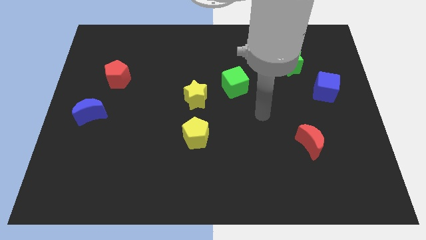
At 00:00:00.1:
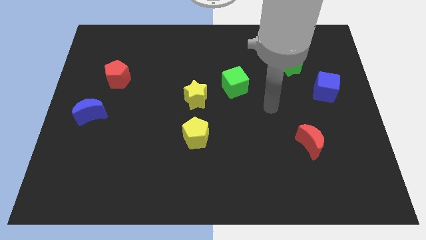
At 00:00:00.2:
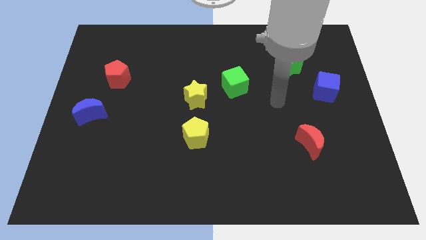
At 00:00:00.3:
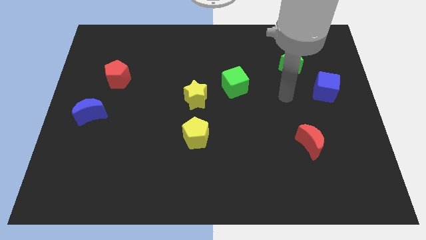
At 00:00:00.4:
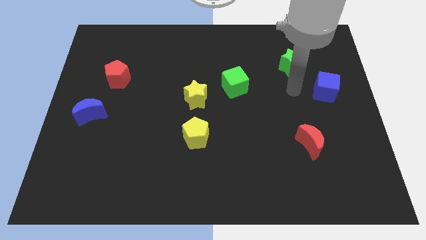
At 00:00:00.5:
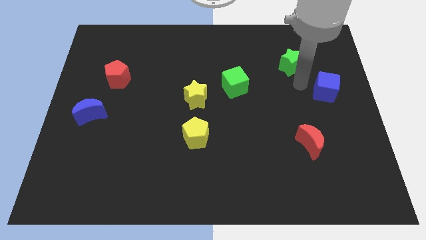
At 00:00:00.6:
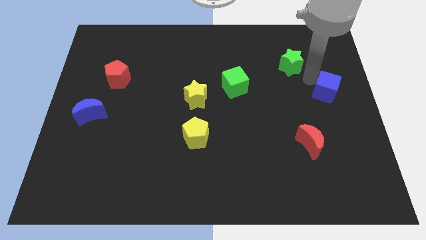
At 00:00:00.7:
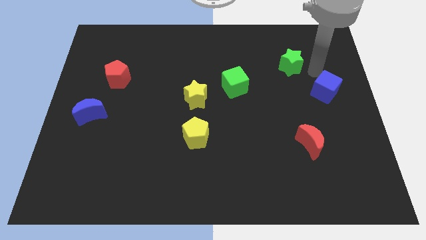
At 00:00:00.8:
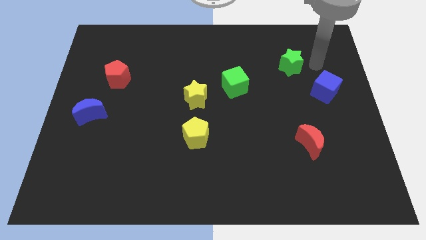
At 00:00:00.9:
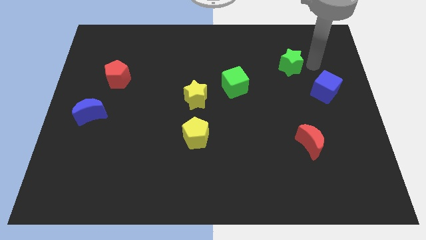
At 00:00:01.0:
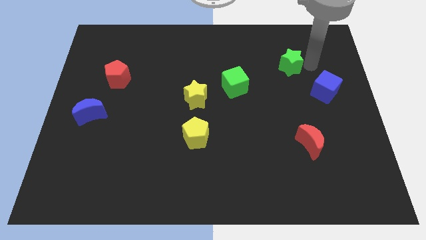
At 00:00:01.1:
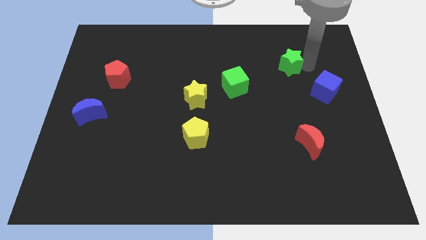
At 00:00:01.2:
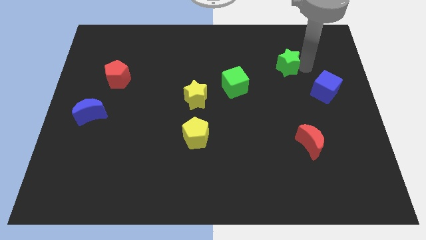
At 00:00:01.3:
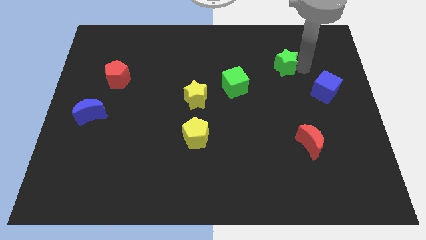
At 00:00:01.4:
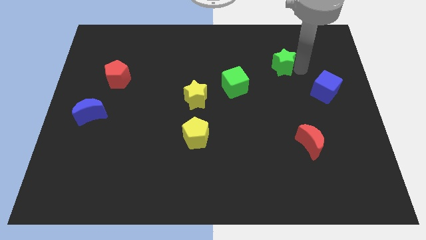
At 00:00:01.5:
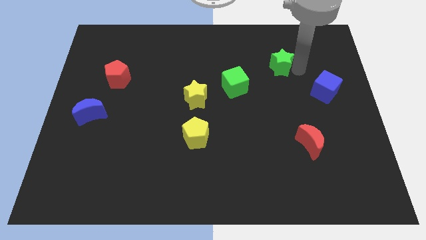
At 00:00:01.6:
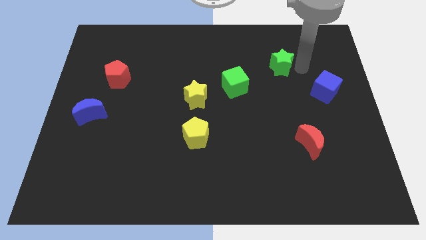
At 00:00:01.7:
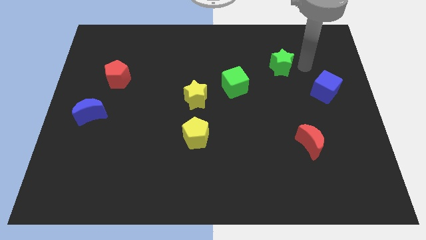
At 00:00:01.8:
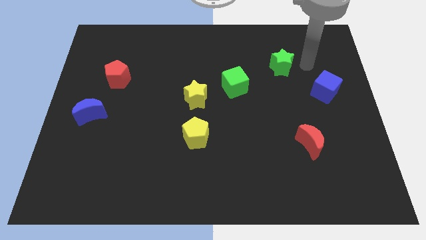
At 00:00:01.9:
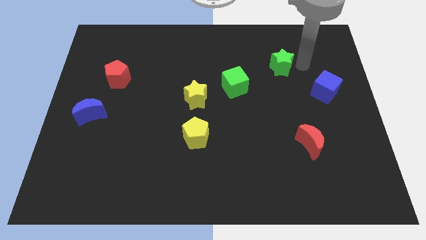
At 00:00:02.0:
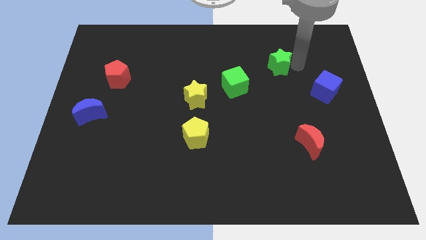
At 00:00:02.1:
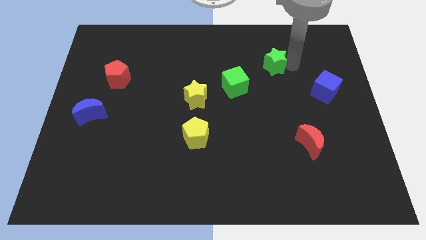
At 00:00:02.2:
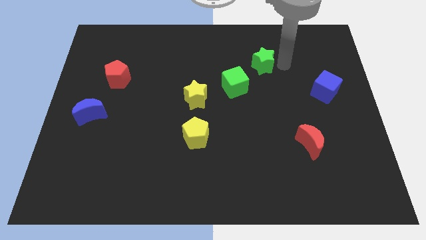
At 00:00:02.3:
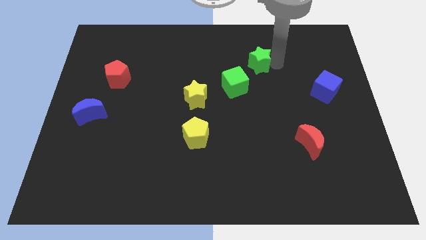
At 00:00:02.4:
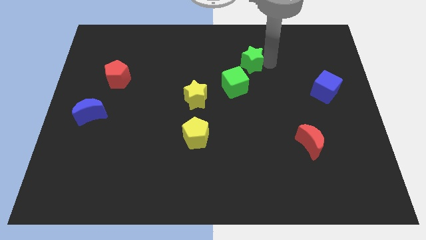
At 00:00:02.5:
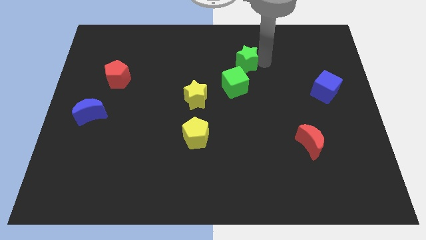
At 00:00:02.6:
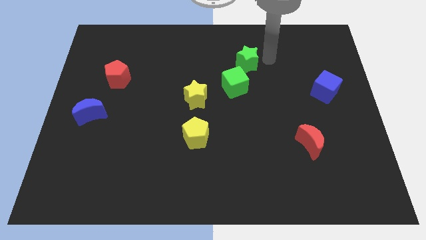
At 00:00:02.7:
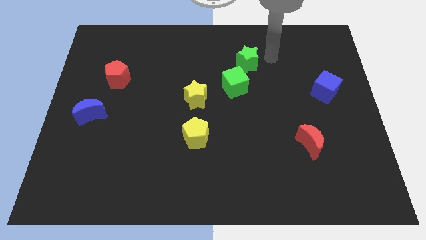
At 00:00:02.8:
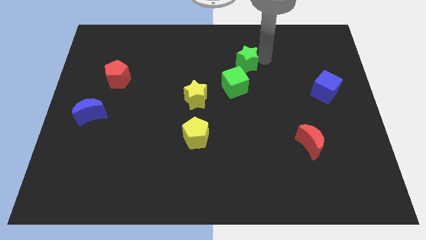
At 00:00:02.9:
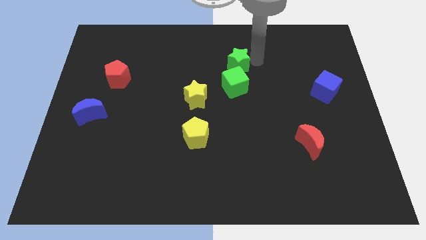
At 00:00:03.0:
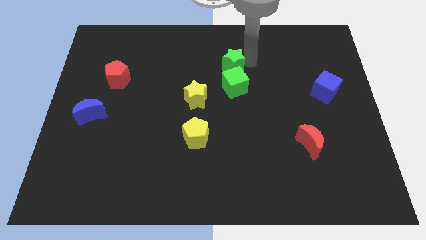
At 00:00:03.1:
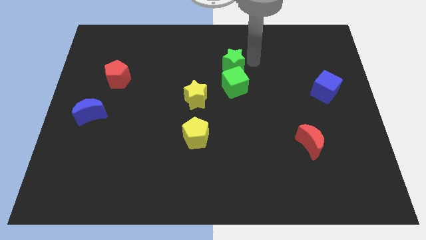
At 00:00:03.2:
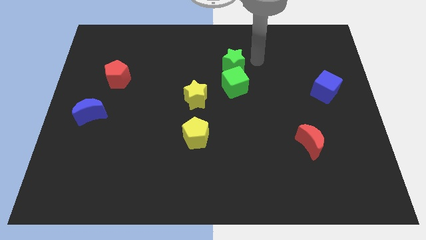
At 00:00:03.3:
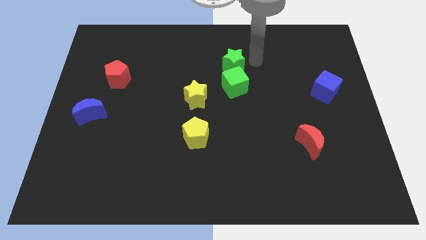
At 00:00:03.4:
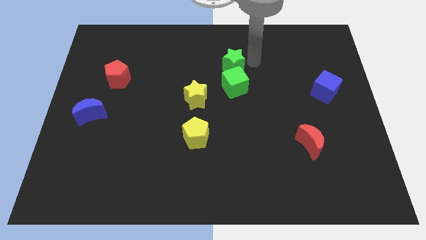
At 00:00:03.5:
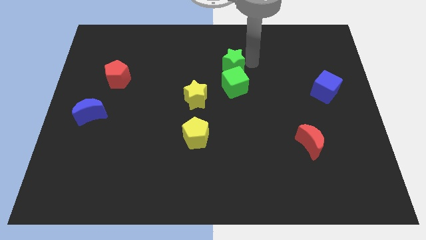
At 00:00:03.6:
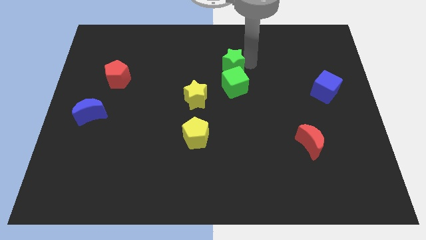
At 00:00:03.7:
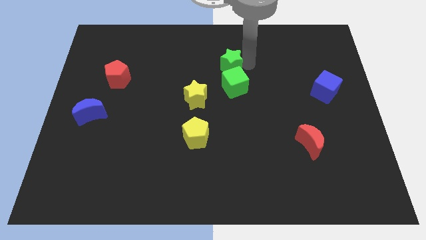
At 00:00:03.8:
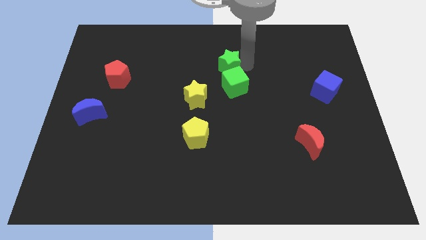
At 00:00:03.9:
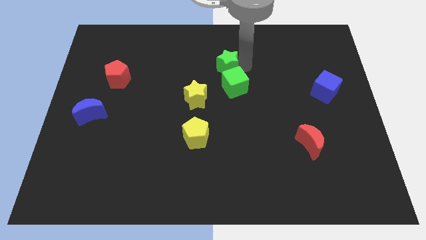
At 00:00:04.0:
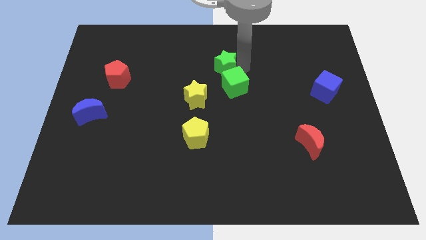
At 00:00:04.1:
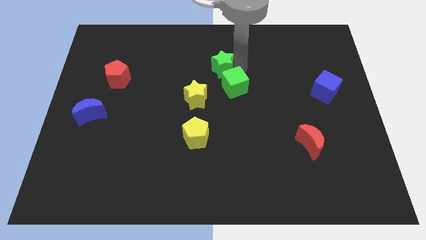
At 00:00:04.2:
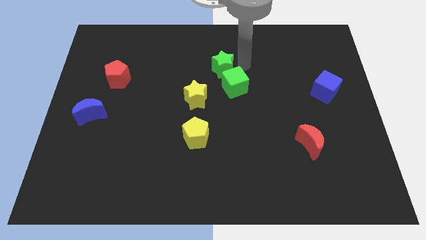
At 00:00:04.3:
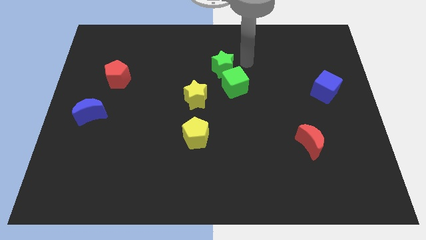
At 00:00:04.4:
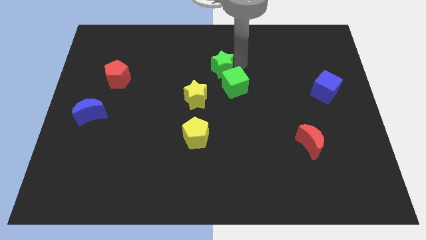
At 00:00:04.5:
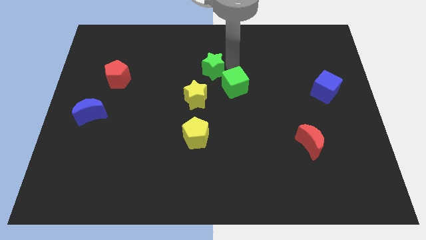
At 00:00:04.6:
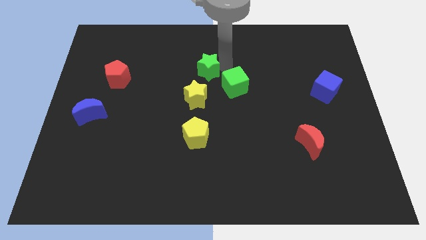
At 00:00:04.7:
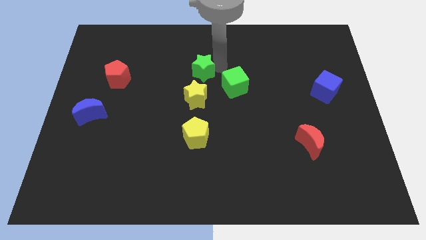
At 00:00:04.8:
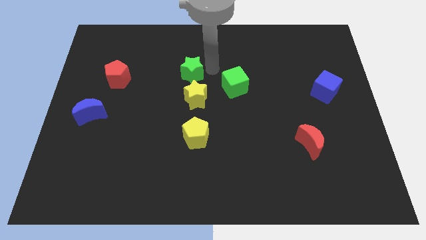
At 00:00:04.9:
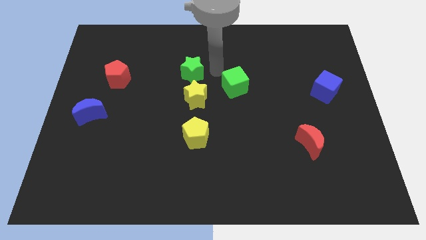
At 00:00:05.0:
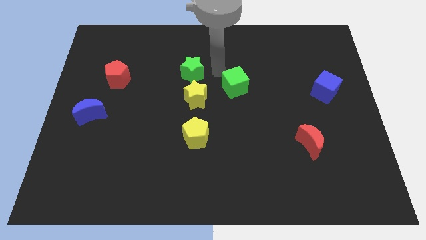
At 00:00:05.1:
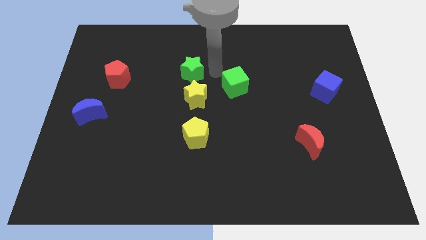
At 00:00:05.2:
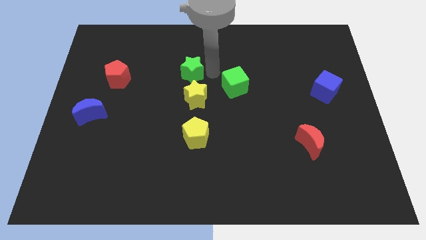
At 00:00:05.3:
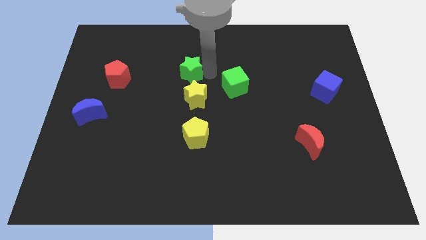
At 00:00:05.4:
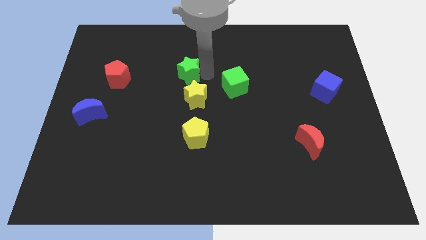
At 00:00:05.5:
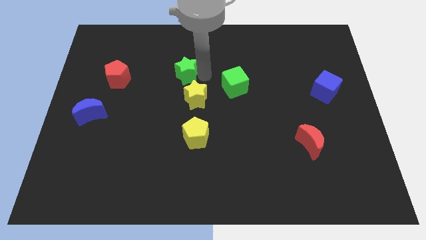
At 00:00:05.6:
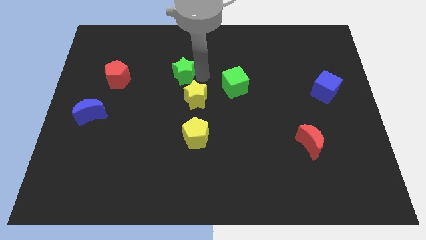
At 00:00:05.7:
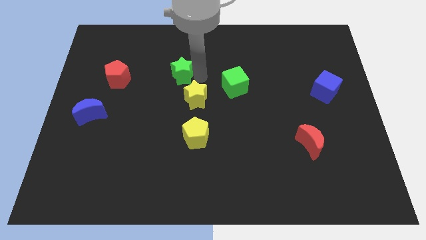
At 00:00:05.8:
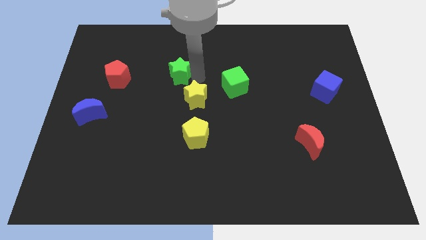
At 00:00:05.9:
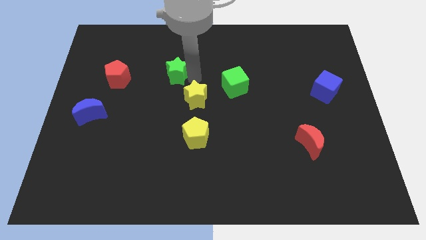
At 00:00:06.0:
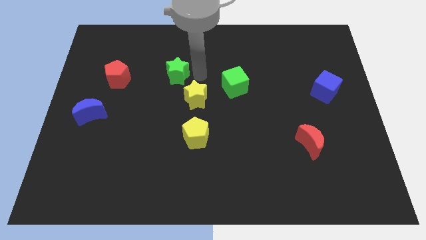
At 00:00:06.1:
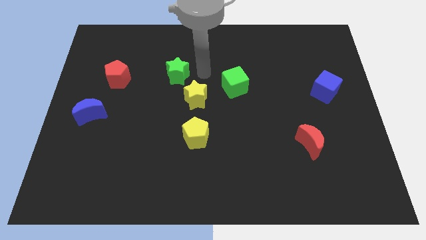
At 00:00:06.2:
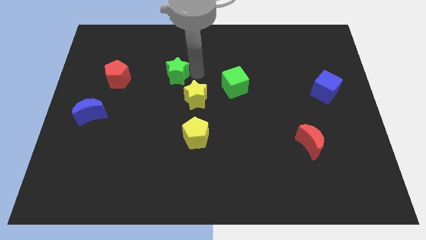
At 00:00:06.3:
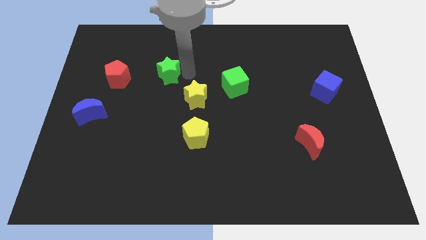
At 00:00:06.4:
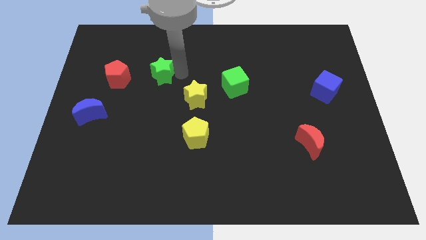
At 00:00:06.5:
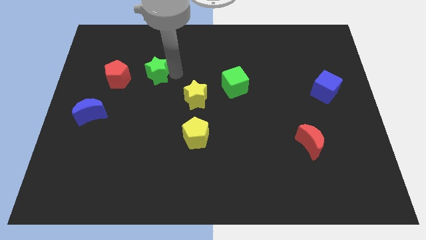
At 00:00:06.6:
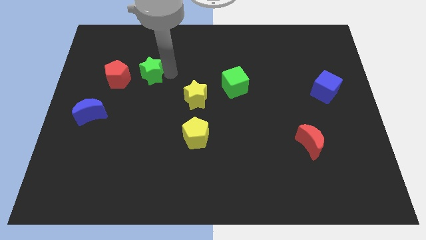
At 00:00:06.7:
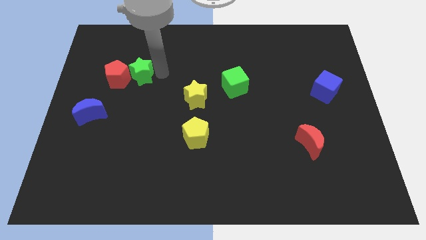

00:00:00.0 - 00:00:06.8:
move the green star towards the red pentagon

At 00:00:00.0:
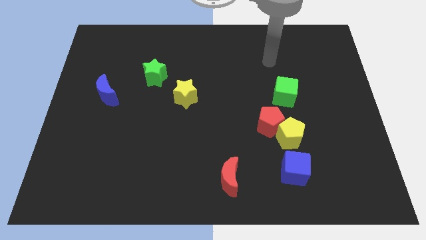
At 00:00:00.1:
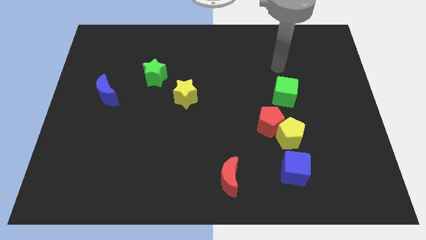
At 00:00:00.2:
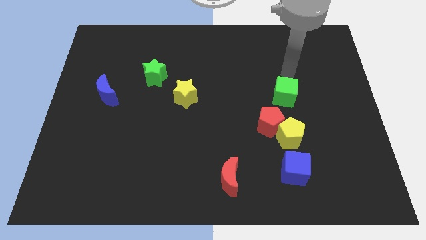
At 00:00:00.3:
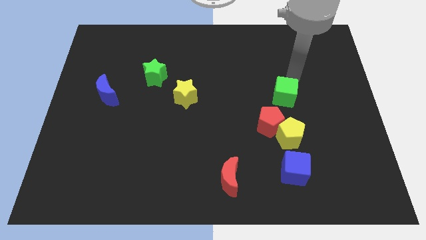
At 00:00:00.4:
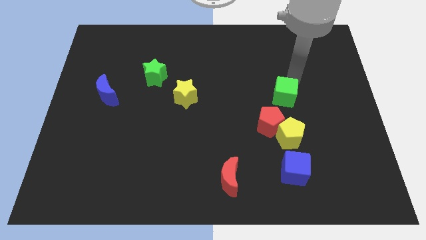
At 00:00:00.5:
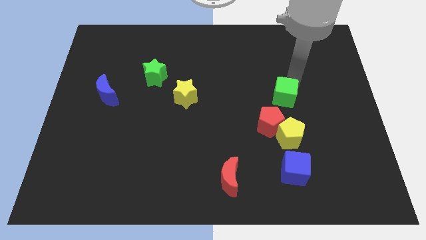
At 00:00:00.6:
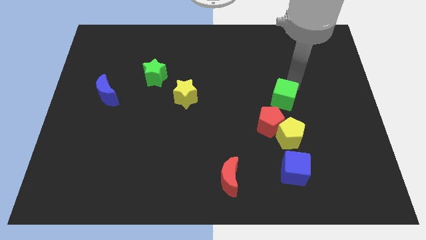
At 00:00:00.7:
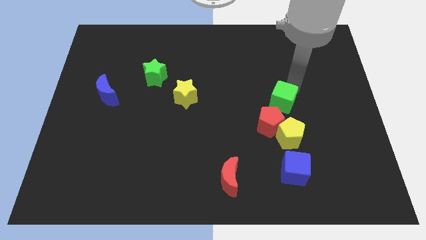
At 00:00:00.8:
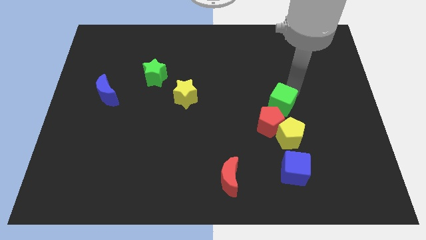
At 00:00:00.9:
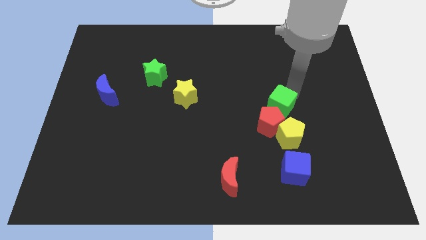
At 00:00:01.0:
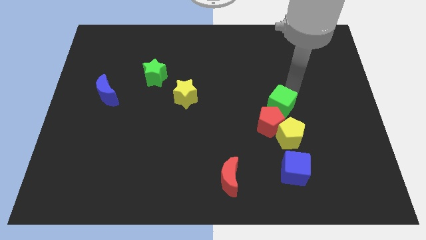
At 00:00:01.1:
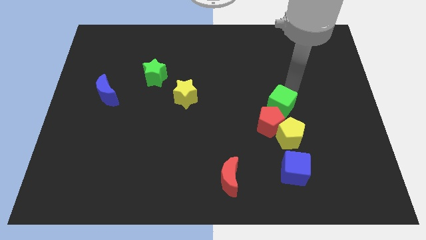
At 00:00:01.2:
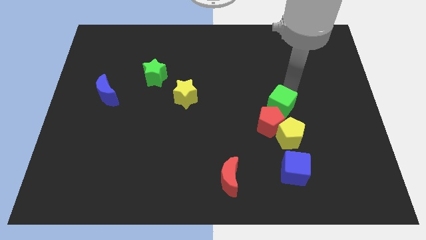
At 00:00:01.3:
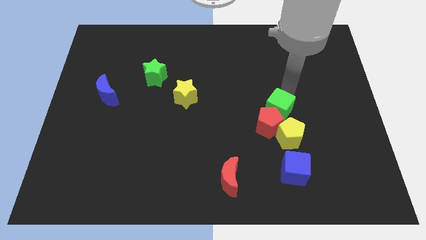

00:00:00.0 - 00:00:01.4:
push the green cube close to the red pentagon
